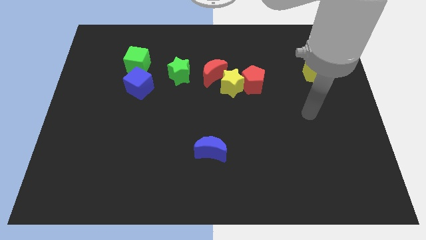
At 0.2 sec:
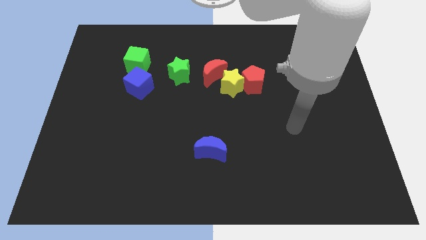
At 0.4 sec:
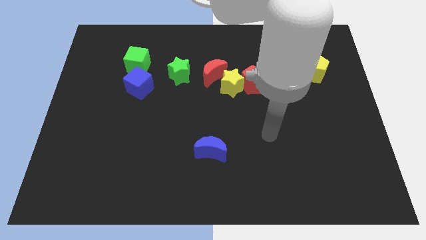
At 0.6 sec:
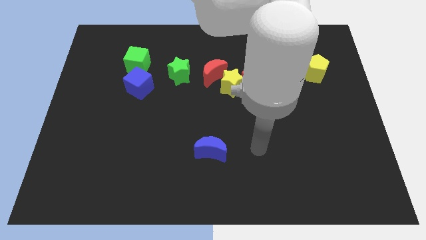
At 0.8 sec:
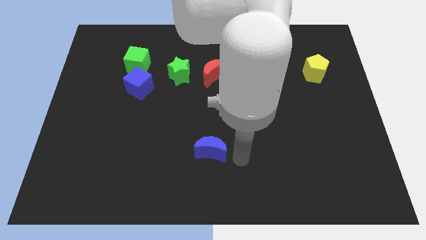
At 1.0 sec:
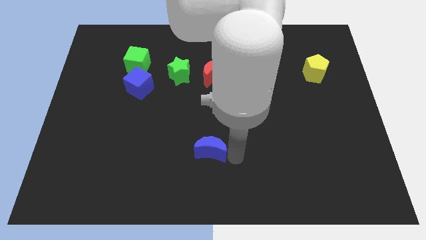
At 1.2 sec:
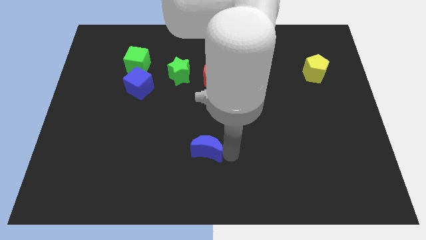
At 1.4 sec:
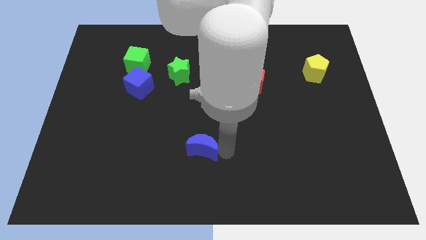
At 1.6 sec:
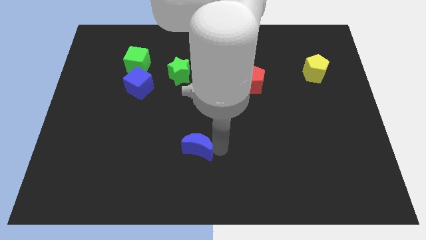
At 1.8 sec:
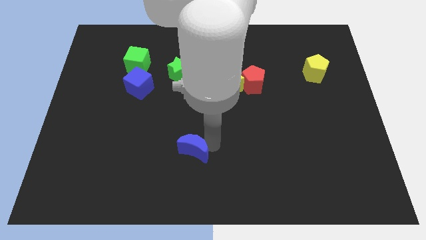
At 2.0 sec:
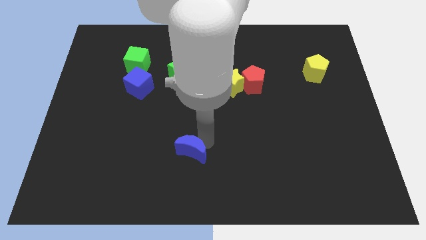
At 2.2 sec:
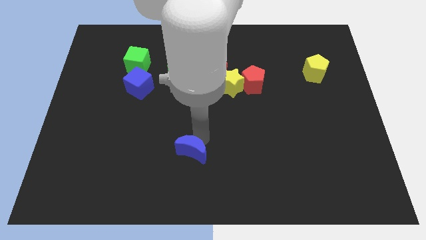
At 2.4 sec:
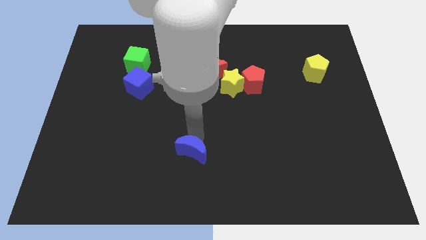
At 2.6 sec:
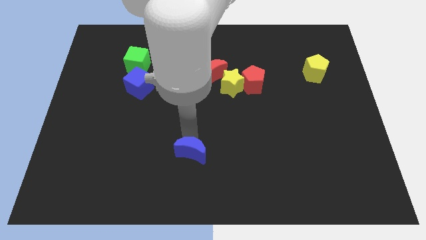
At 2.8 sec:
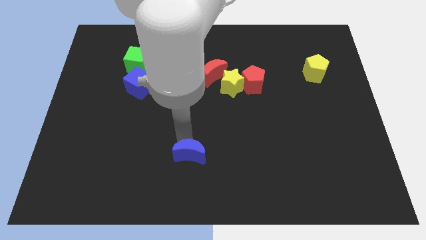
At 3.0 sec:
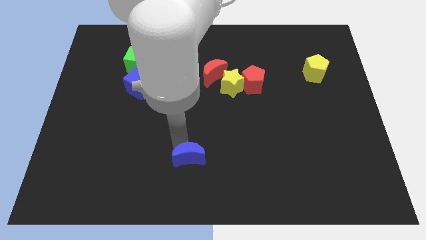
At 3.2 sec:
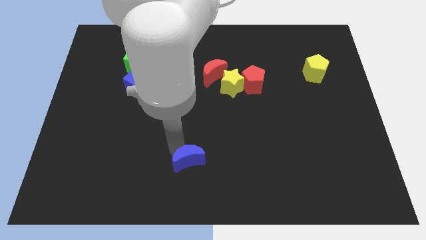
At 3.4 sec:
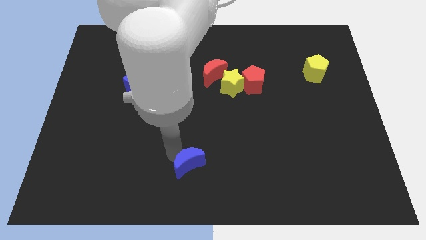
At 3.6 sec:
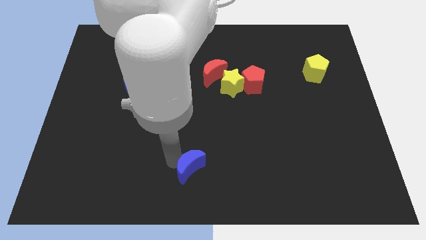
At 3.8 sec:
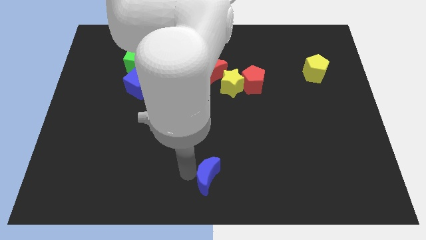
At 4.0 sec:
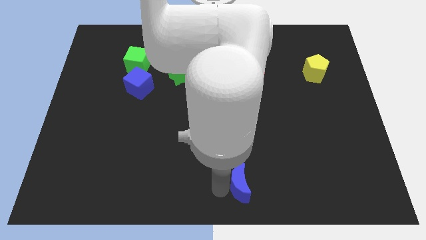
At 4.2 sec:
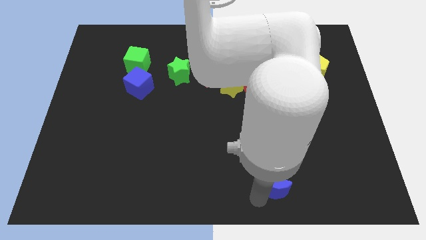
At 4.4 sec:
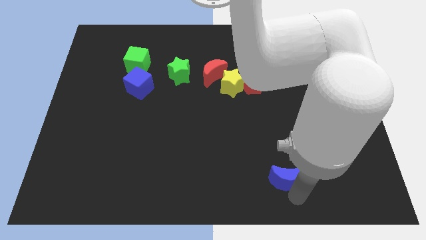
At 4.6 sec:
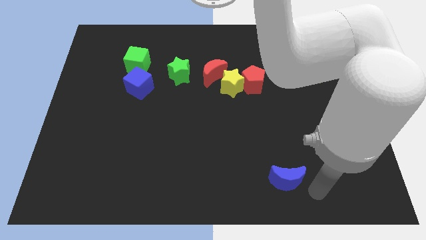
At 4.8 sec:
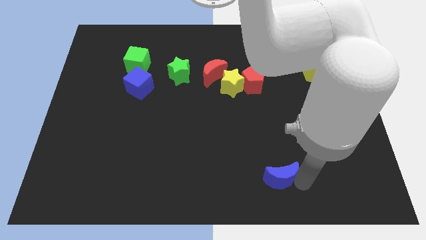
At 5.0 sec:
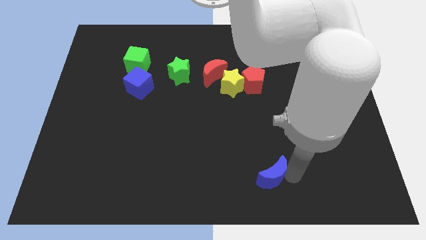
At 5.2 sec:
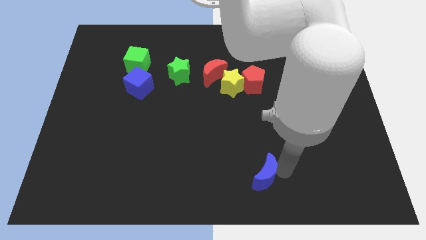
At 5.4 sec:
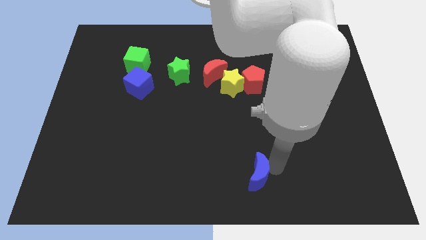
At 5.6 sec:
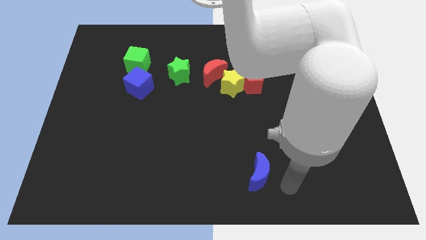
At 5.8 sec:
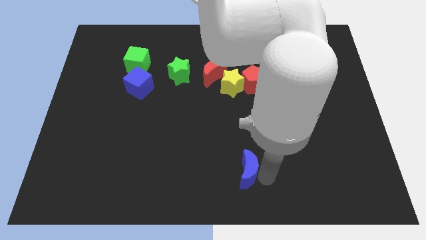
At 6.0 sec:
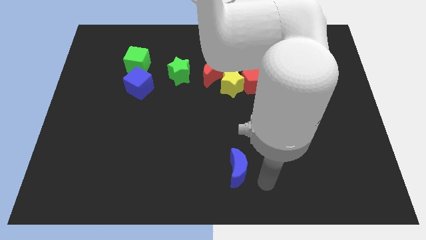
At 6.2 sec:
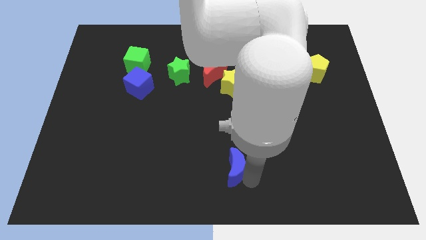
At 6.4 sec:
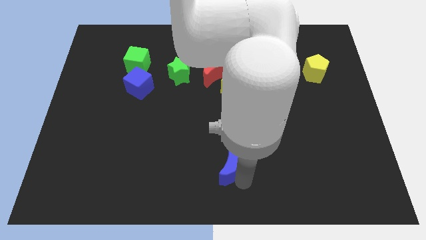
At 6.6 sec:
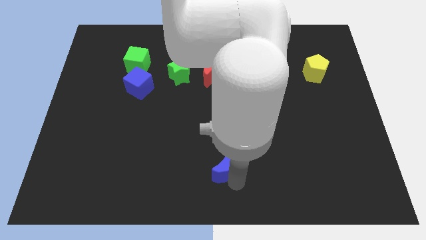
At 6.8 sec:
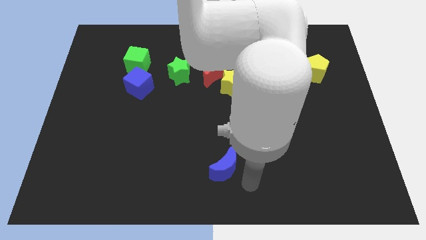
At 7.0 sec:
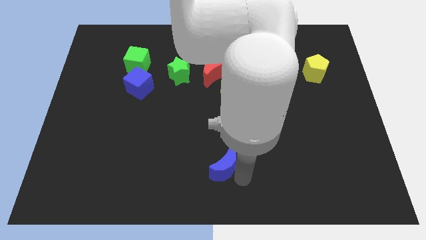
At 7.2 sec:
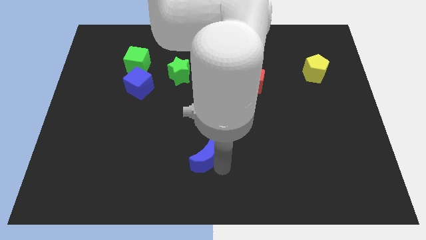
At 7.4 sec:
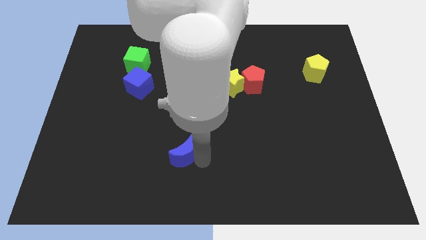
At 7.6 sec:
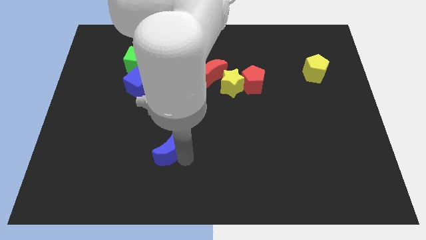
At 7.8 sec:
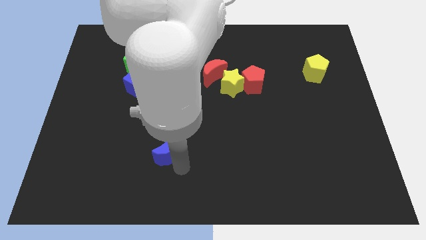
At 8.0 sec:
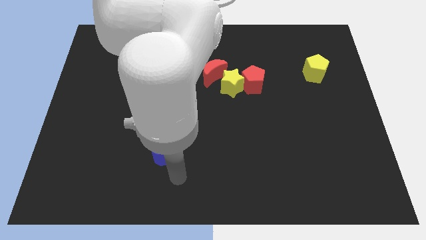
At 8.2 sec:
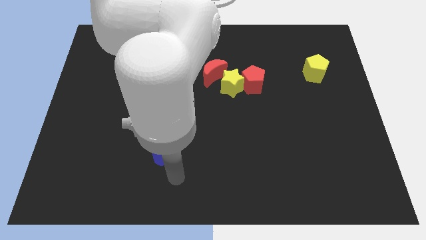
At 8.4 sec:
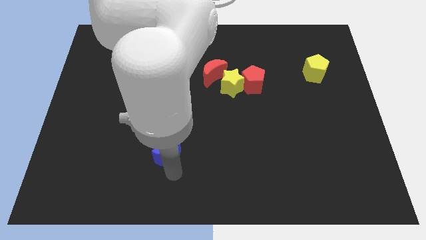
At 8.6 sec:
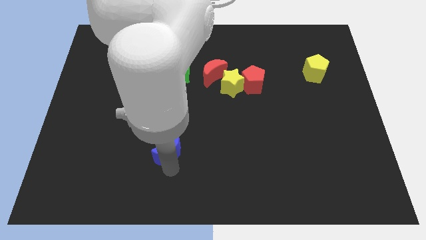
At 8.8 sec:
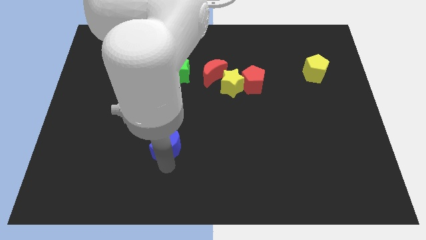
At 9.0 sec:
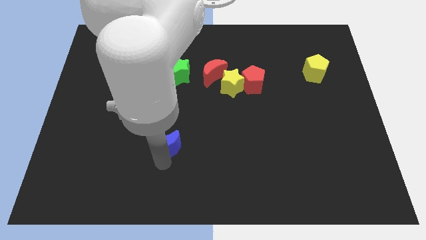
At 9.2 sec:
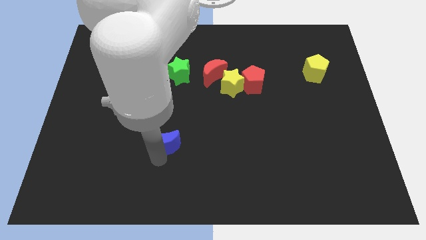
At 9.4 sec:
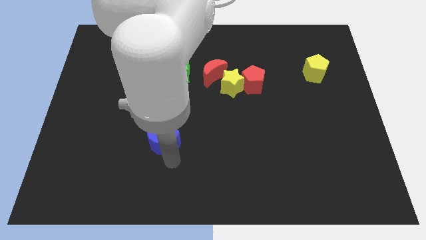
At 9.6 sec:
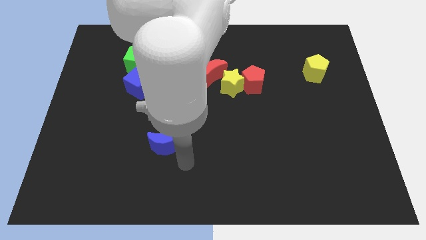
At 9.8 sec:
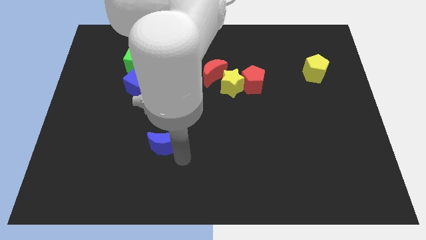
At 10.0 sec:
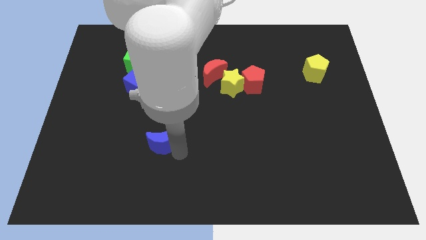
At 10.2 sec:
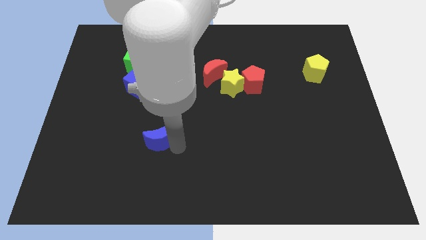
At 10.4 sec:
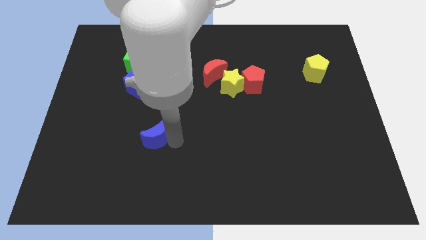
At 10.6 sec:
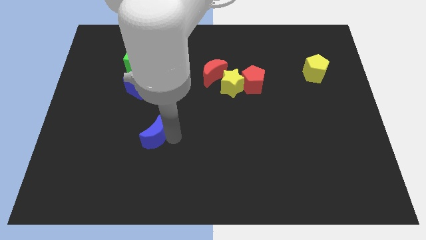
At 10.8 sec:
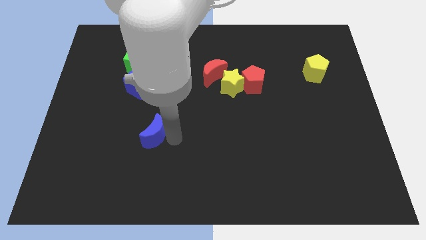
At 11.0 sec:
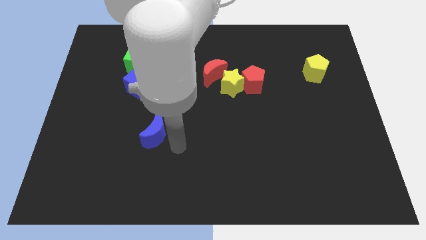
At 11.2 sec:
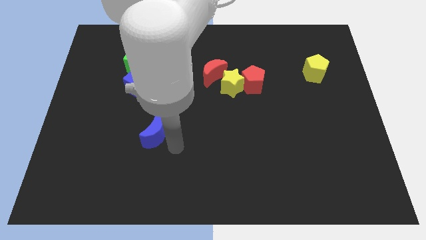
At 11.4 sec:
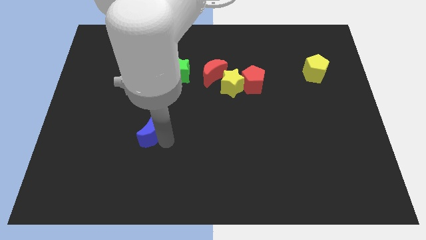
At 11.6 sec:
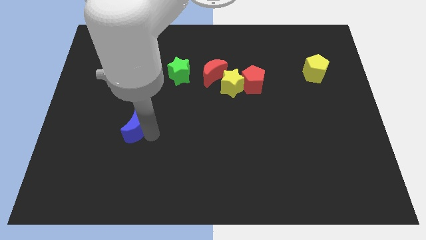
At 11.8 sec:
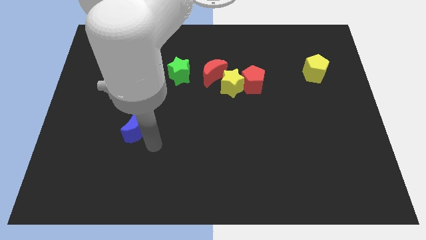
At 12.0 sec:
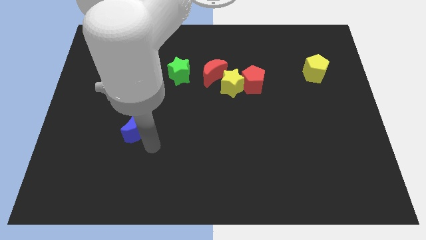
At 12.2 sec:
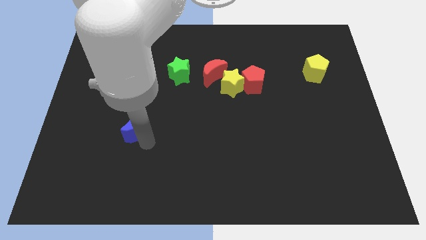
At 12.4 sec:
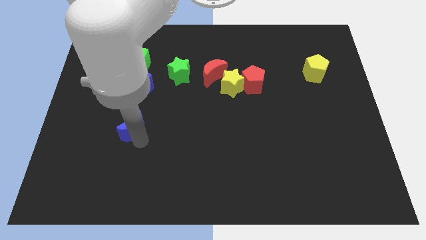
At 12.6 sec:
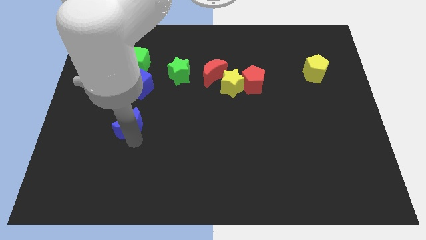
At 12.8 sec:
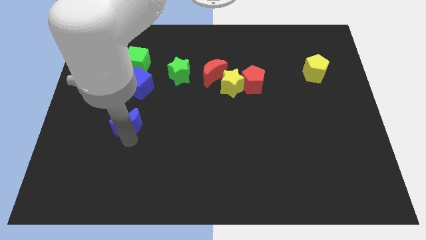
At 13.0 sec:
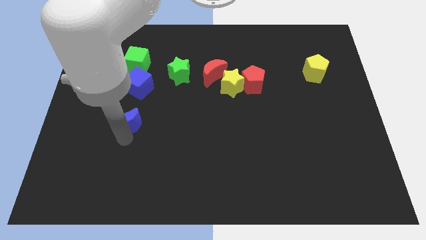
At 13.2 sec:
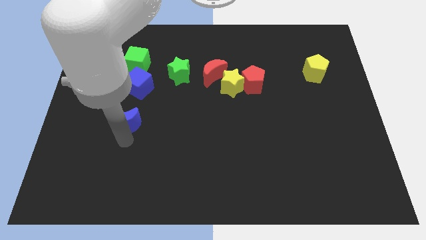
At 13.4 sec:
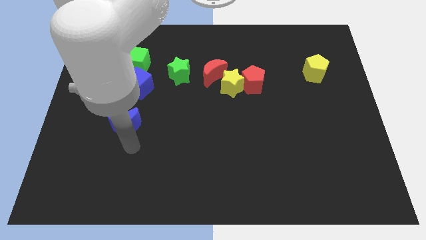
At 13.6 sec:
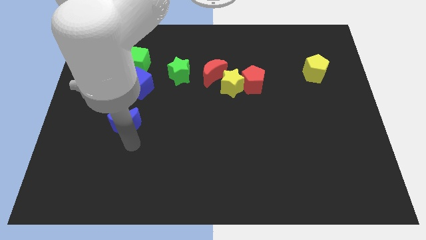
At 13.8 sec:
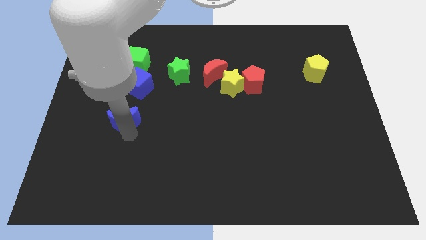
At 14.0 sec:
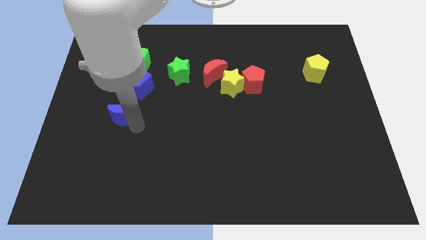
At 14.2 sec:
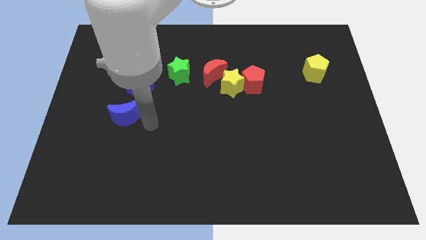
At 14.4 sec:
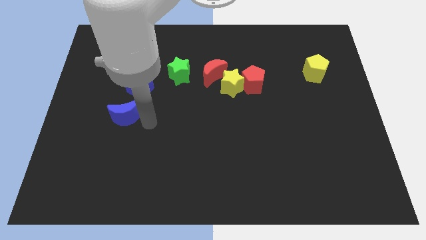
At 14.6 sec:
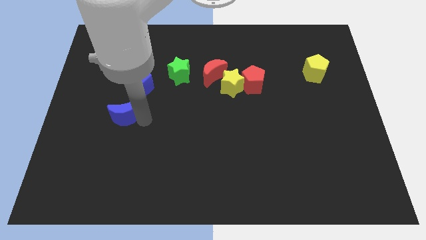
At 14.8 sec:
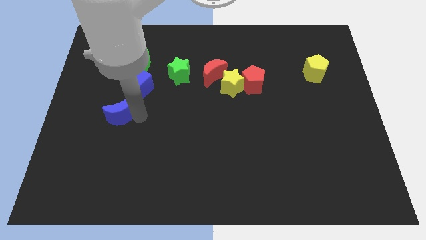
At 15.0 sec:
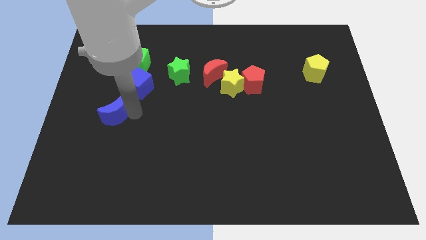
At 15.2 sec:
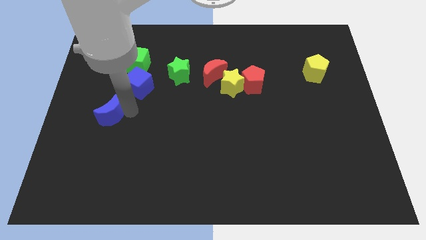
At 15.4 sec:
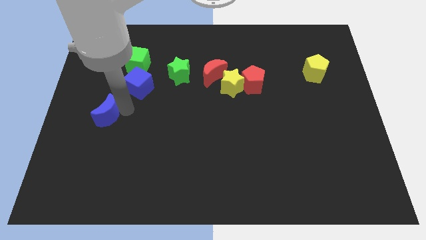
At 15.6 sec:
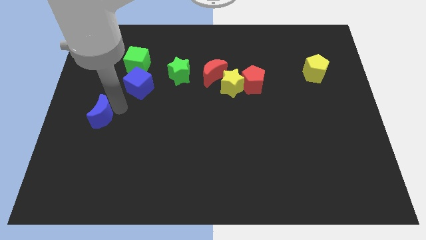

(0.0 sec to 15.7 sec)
push the blue moon to the center left
